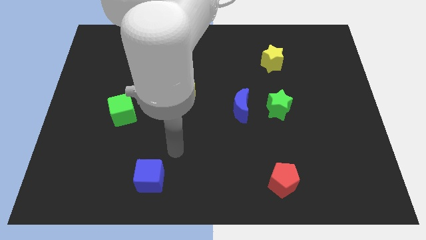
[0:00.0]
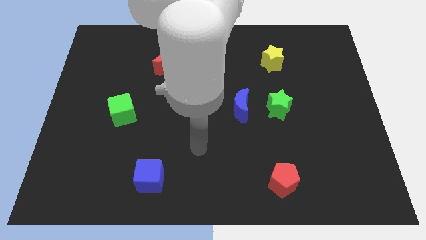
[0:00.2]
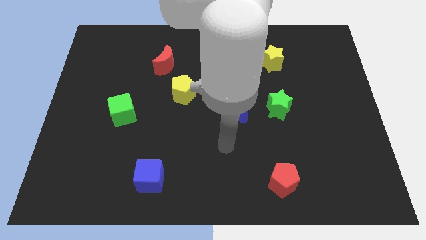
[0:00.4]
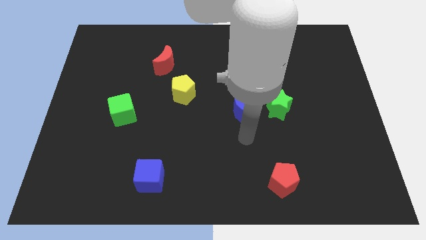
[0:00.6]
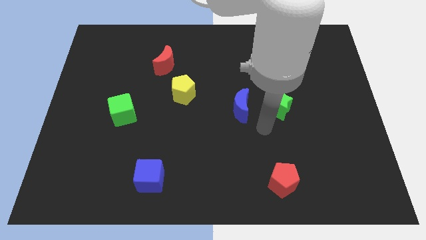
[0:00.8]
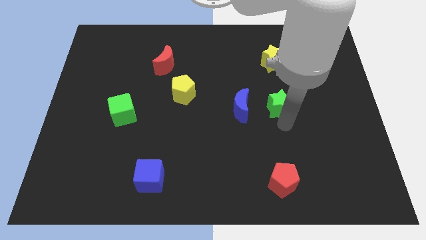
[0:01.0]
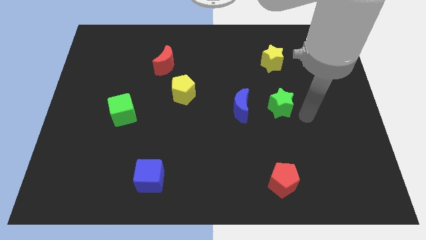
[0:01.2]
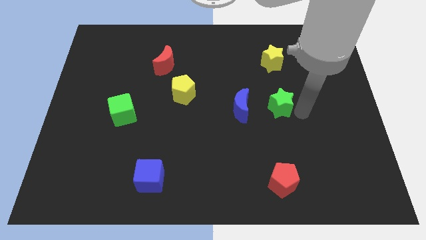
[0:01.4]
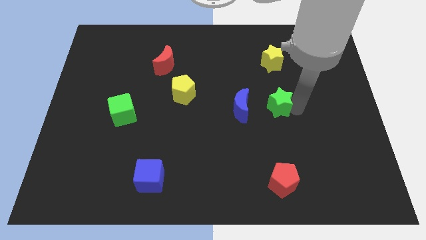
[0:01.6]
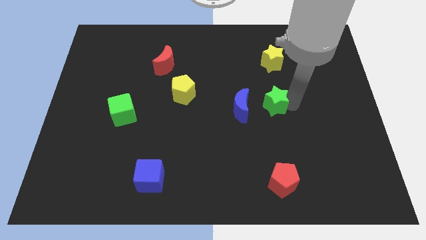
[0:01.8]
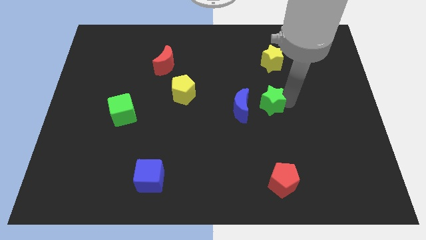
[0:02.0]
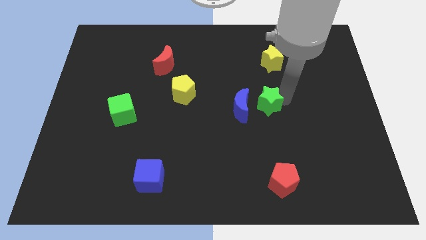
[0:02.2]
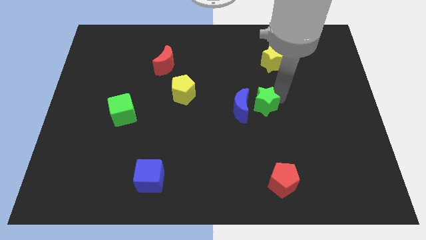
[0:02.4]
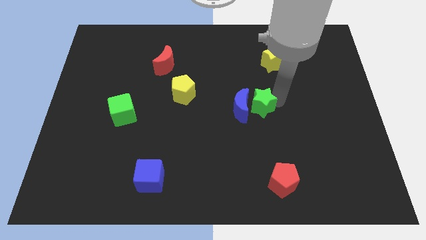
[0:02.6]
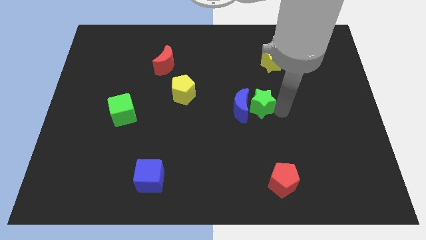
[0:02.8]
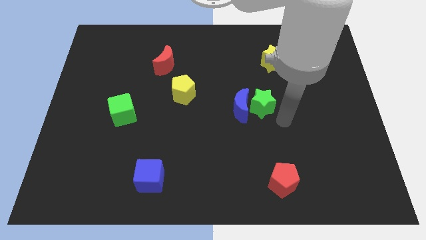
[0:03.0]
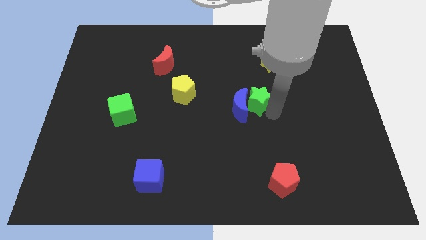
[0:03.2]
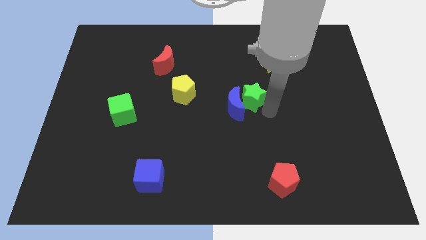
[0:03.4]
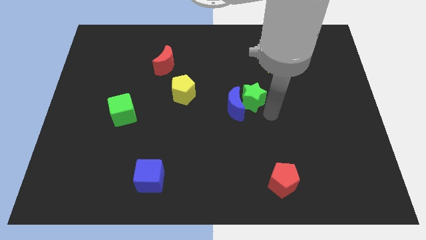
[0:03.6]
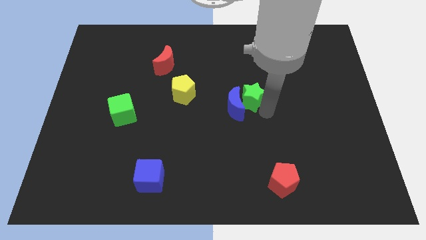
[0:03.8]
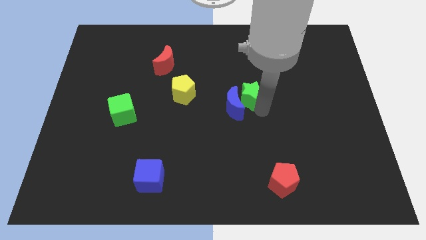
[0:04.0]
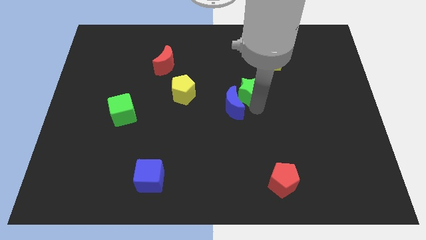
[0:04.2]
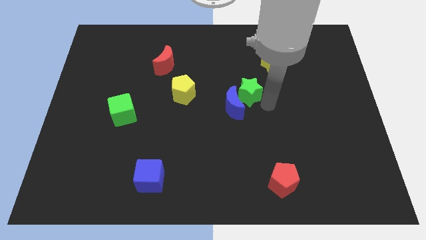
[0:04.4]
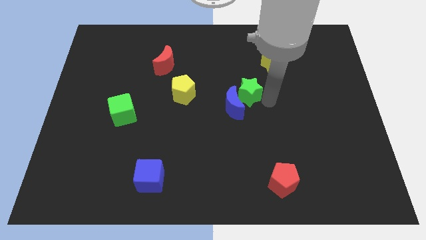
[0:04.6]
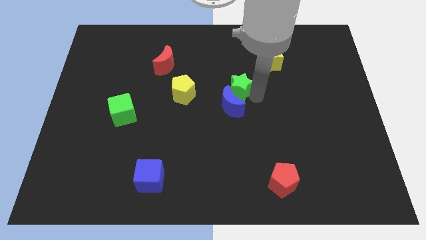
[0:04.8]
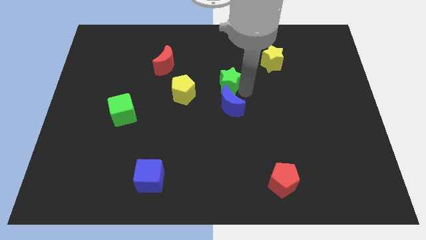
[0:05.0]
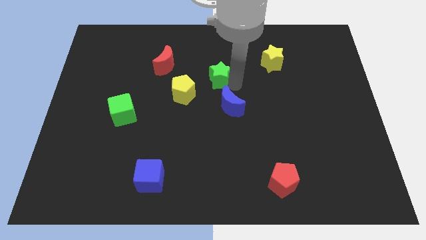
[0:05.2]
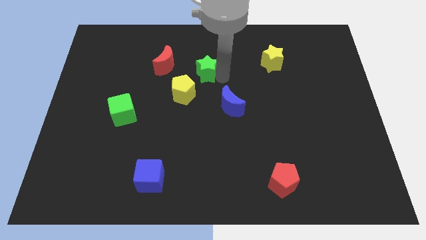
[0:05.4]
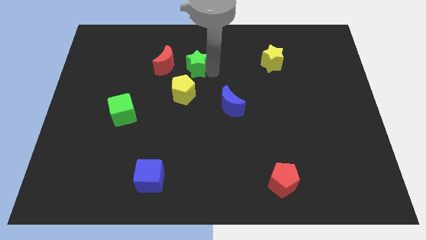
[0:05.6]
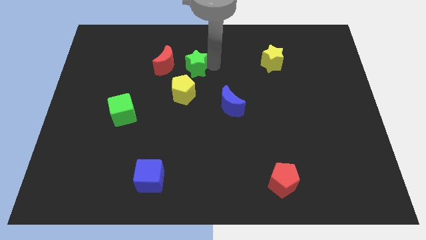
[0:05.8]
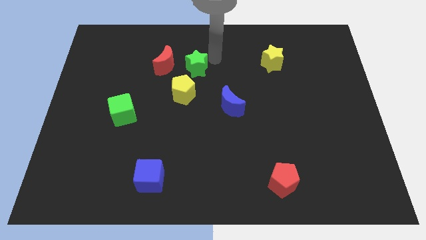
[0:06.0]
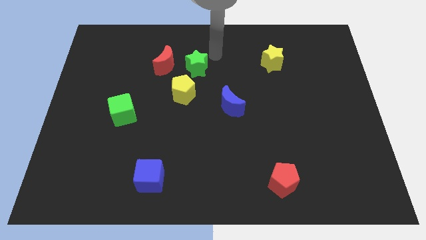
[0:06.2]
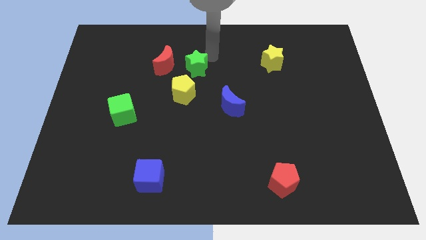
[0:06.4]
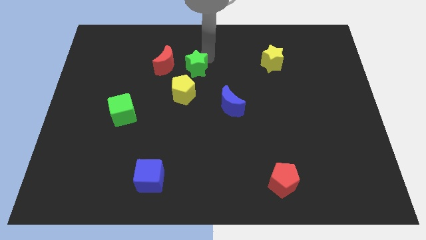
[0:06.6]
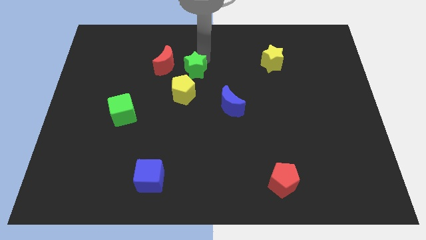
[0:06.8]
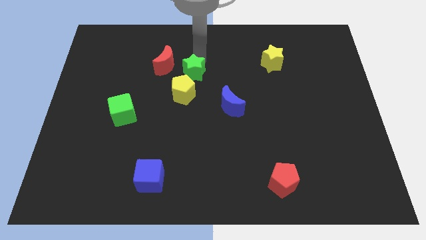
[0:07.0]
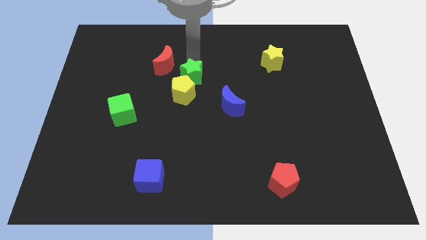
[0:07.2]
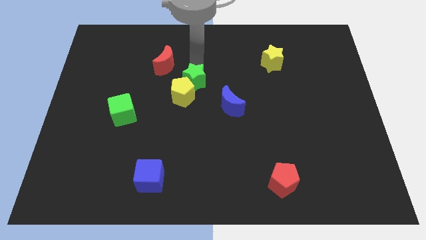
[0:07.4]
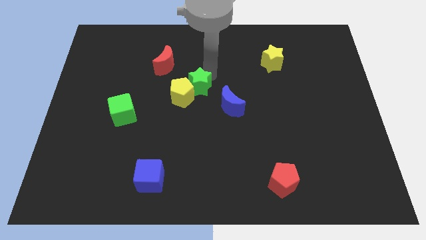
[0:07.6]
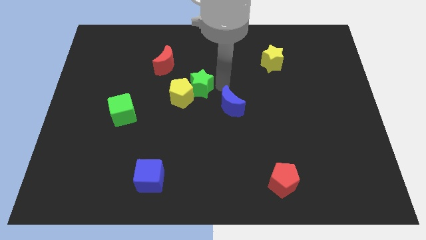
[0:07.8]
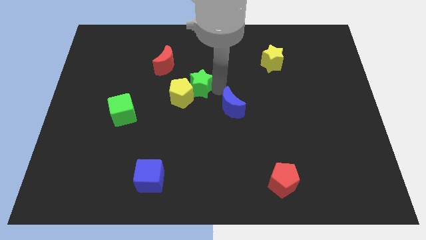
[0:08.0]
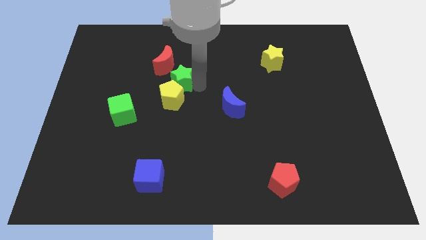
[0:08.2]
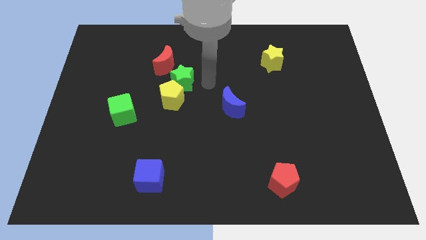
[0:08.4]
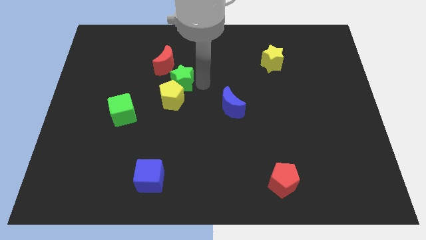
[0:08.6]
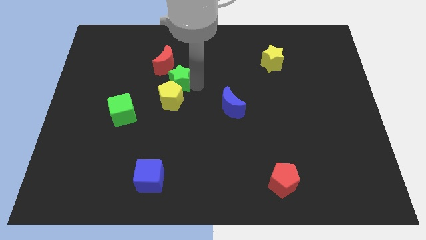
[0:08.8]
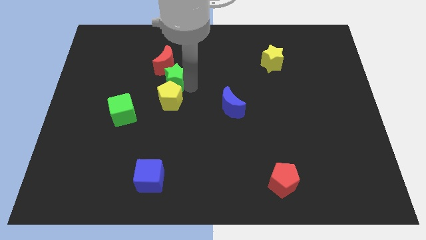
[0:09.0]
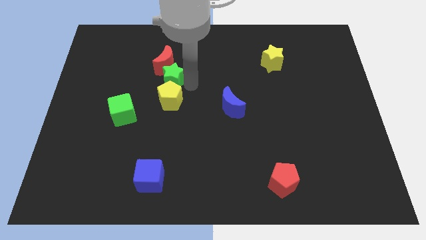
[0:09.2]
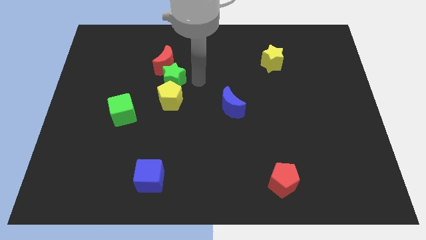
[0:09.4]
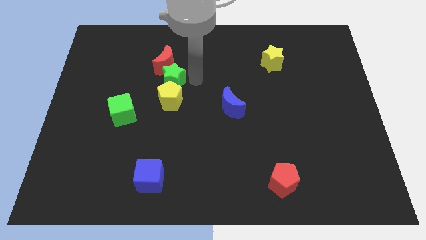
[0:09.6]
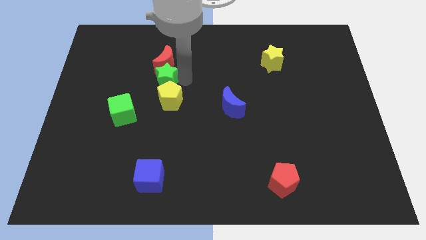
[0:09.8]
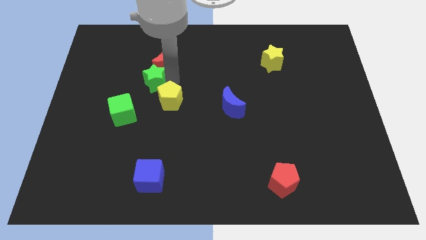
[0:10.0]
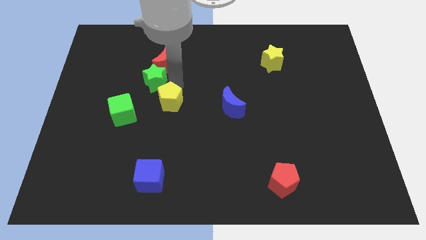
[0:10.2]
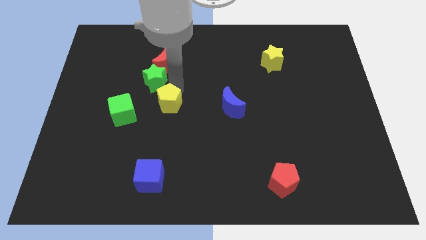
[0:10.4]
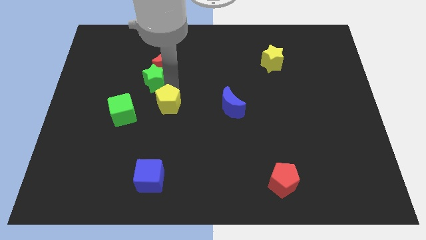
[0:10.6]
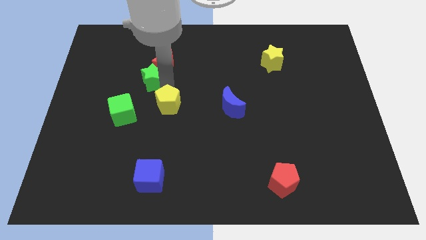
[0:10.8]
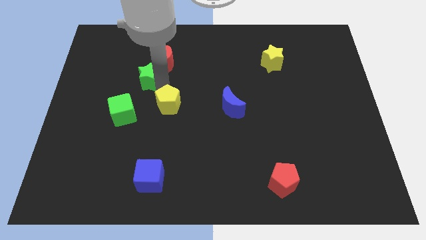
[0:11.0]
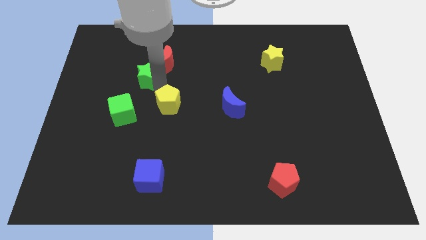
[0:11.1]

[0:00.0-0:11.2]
put the green star to the left of the red moon

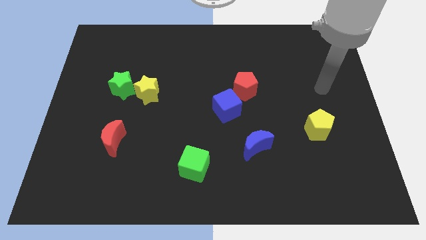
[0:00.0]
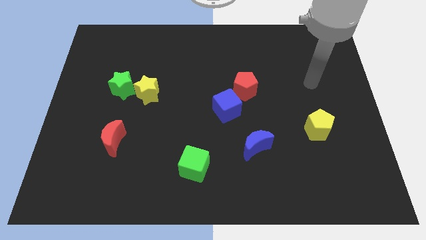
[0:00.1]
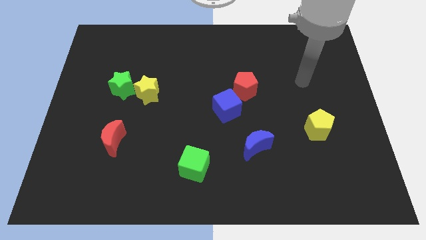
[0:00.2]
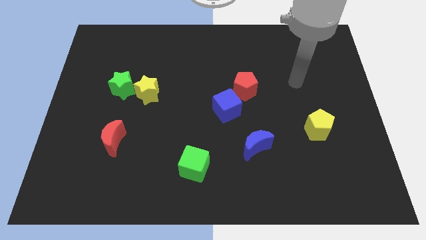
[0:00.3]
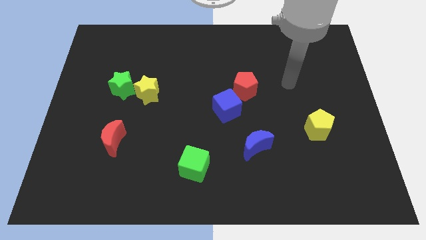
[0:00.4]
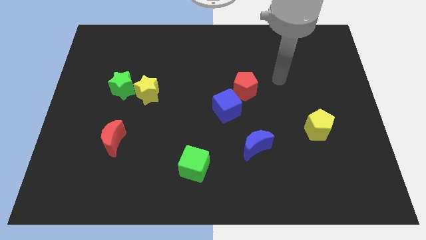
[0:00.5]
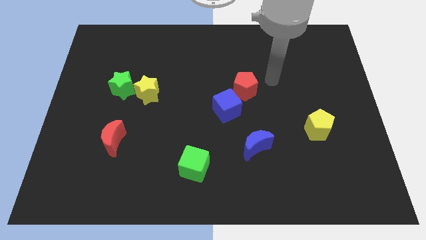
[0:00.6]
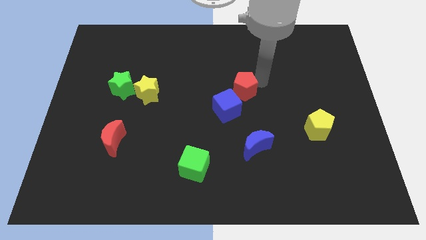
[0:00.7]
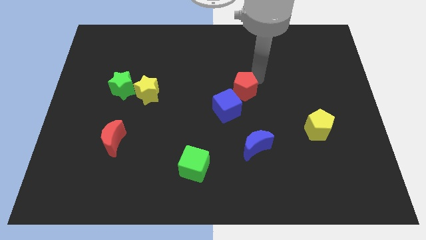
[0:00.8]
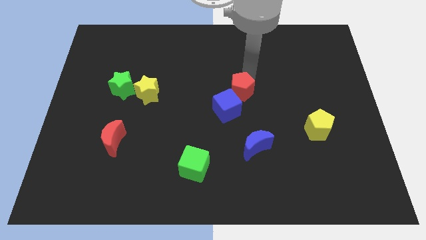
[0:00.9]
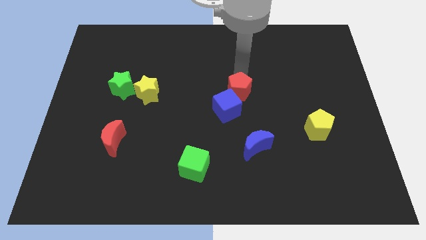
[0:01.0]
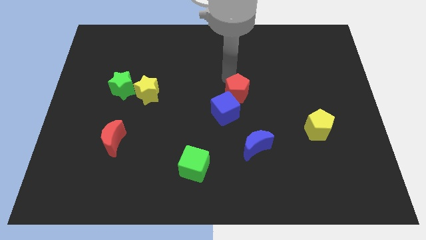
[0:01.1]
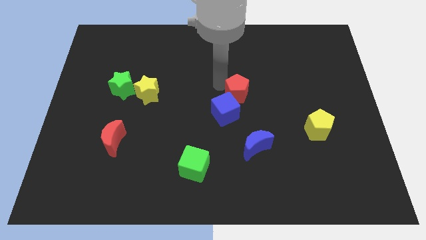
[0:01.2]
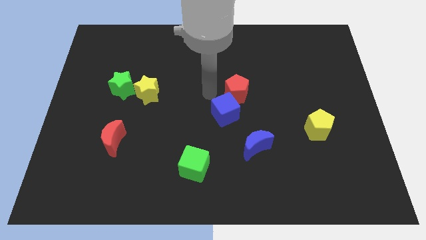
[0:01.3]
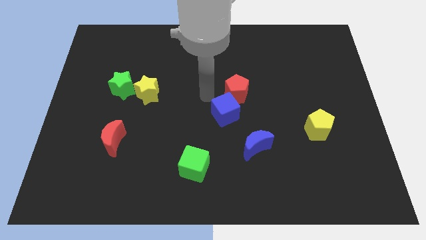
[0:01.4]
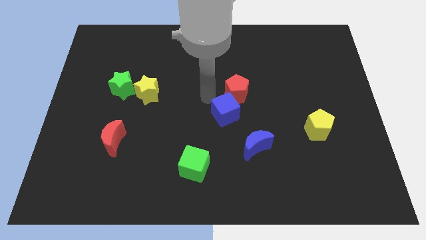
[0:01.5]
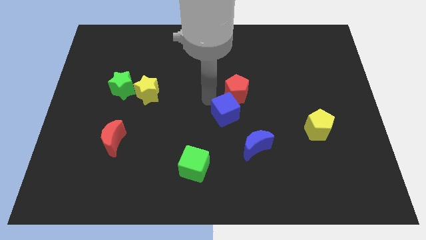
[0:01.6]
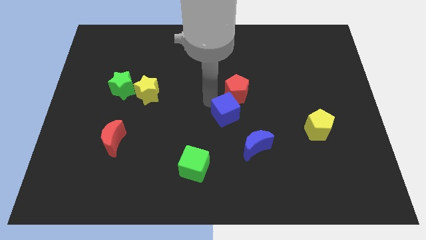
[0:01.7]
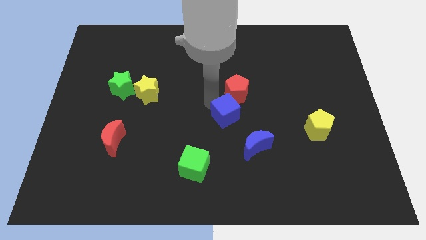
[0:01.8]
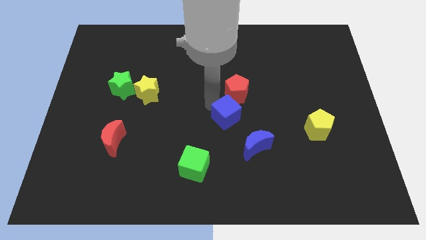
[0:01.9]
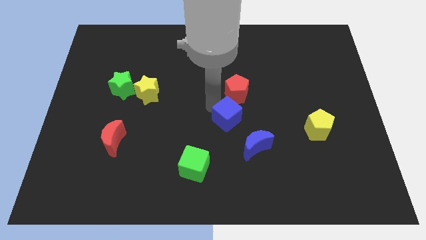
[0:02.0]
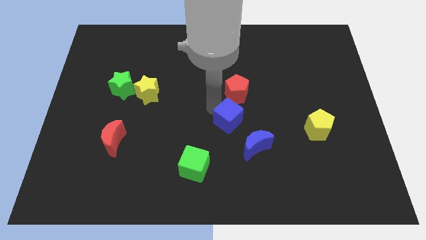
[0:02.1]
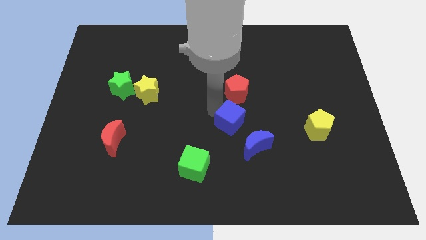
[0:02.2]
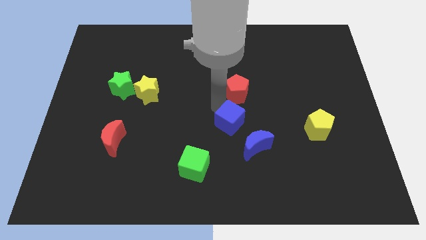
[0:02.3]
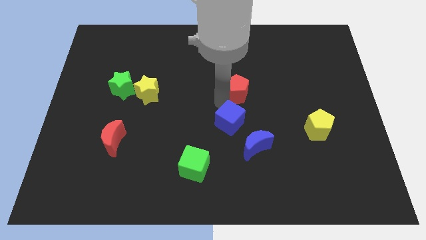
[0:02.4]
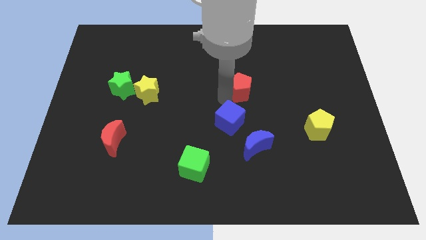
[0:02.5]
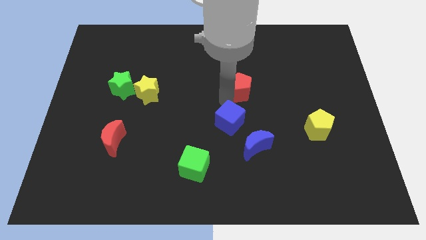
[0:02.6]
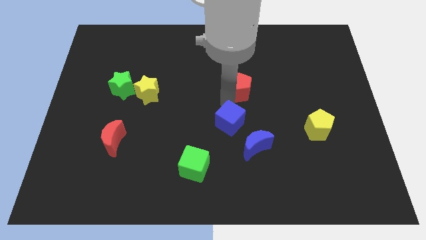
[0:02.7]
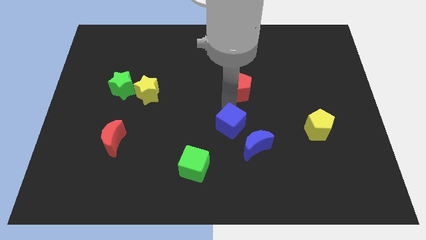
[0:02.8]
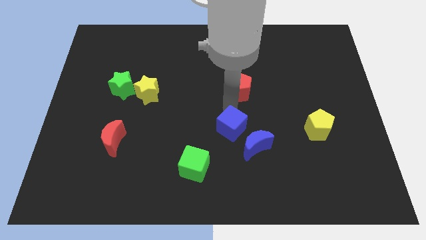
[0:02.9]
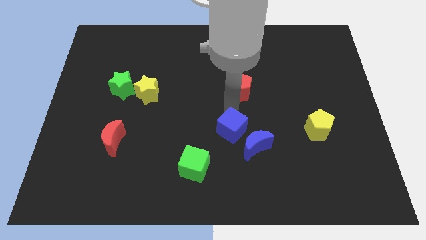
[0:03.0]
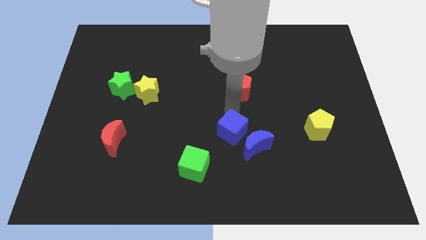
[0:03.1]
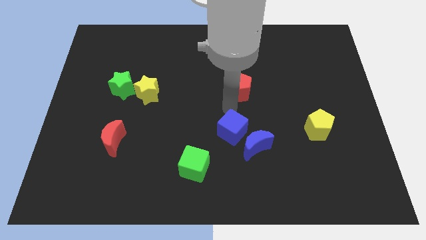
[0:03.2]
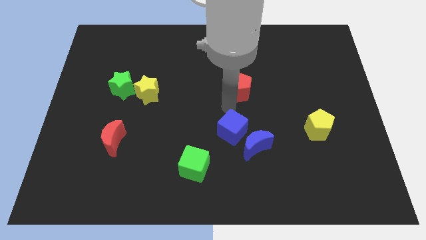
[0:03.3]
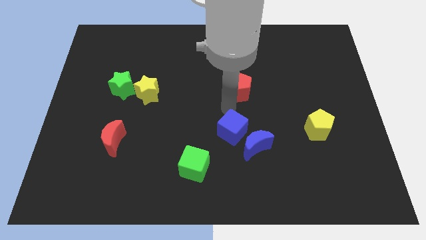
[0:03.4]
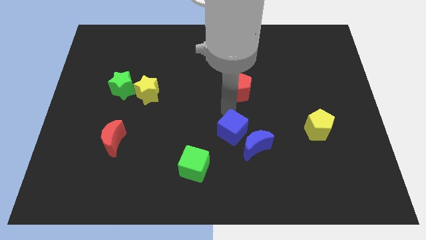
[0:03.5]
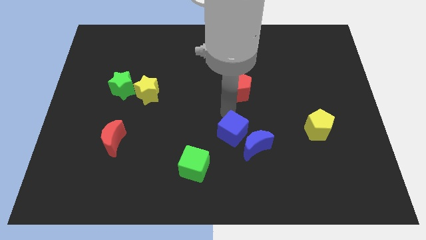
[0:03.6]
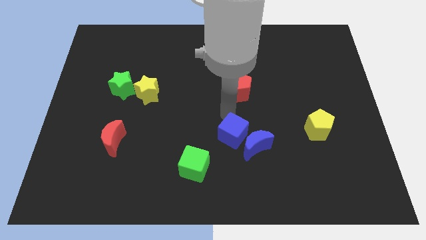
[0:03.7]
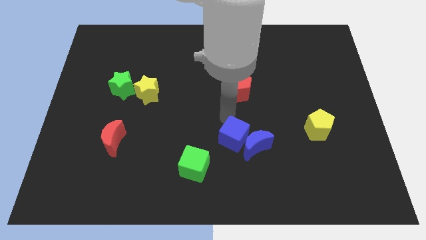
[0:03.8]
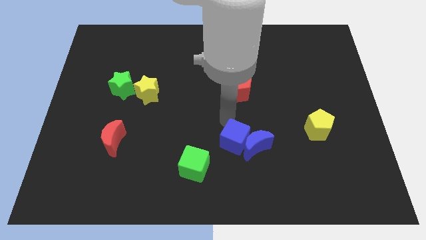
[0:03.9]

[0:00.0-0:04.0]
move the blue cube to the bottom left of the blue moon
